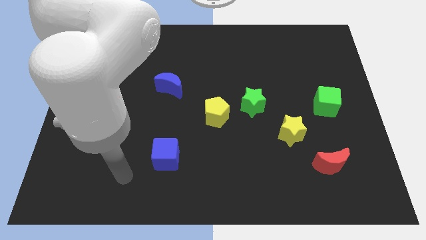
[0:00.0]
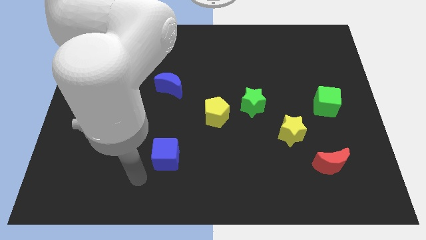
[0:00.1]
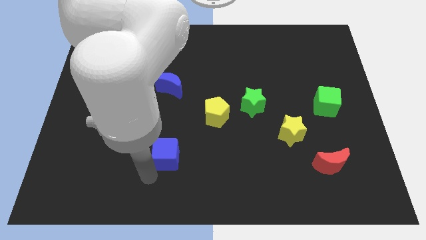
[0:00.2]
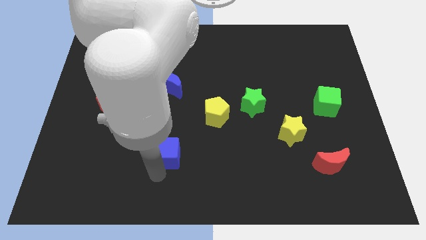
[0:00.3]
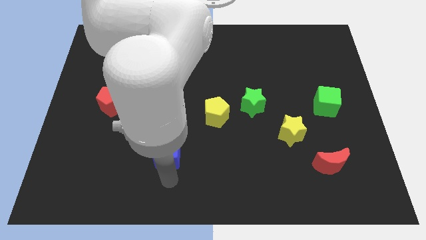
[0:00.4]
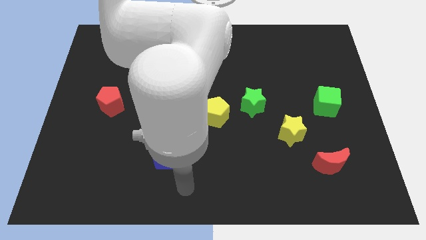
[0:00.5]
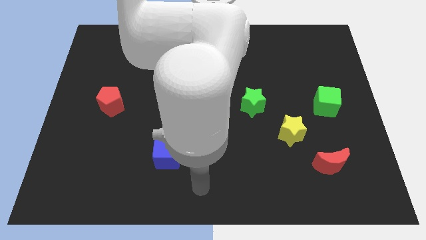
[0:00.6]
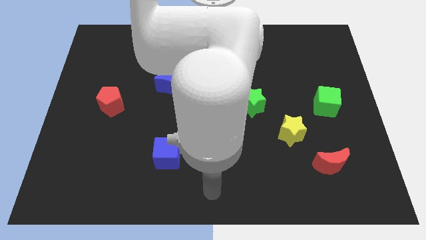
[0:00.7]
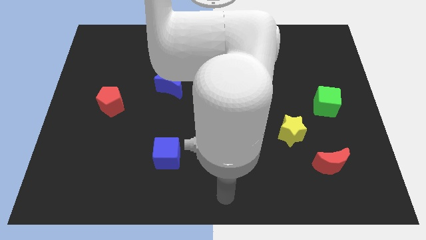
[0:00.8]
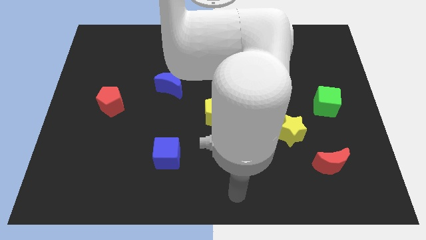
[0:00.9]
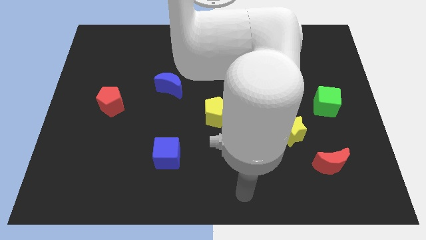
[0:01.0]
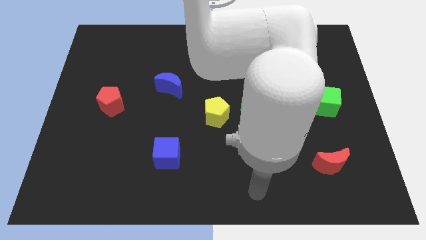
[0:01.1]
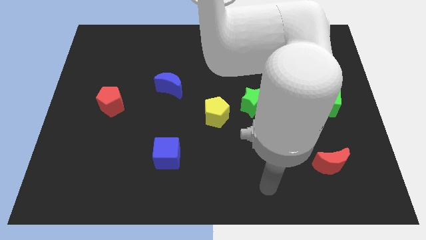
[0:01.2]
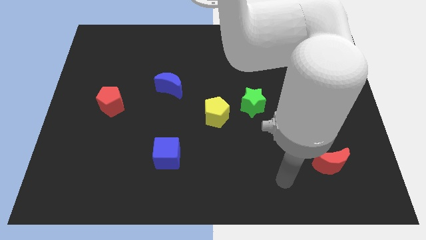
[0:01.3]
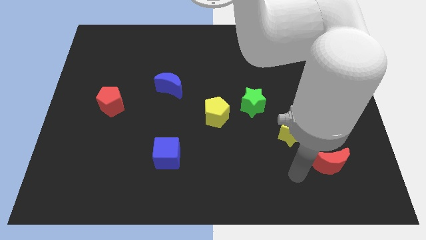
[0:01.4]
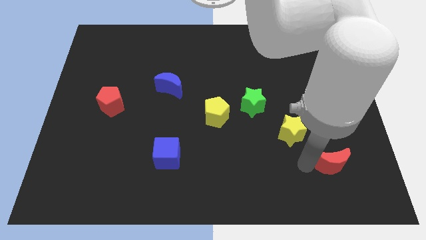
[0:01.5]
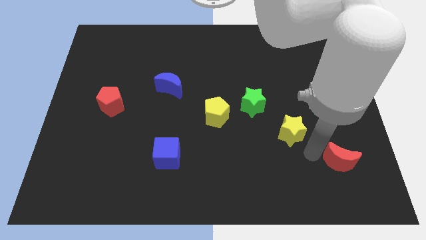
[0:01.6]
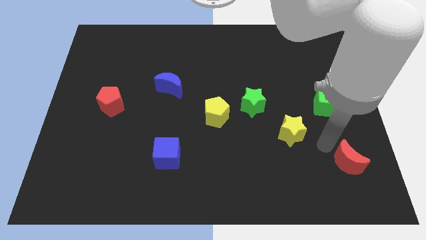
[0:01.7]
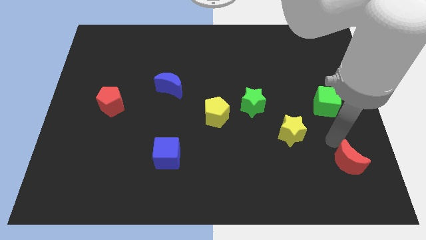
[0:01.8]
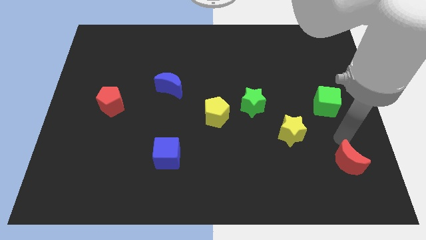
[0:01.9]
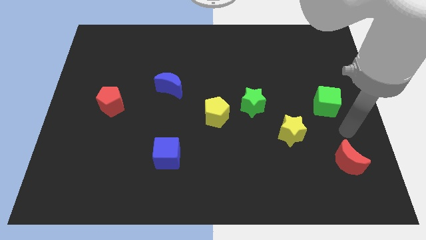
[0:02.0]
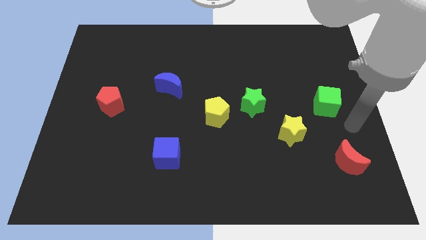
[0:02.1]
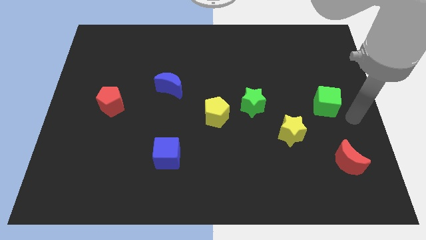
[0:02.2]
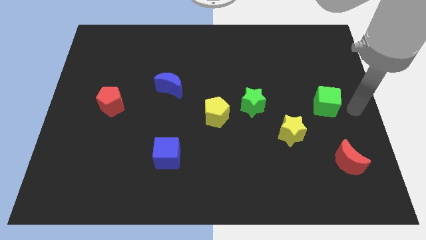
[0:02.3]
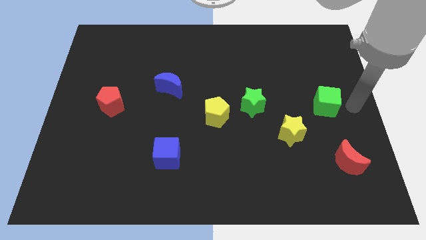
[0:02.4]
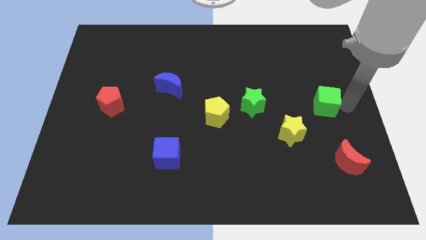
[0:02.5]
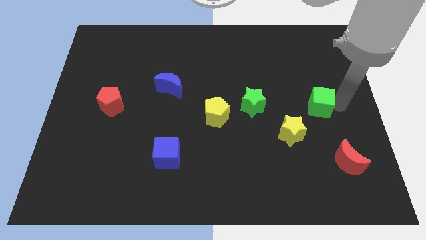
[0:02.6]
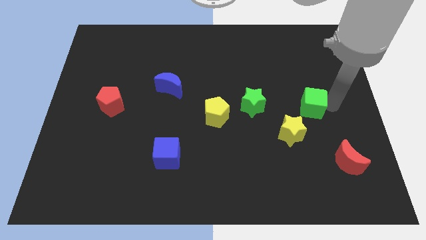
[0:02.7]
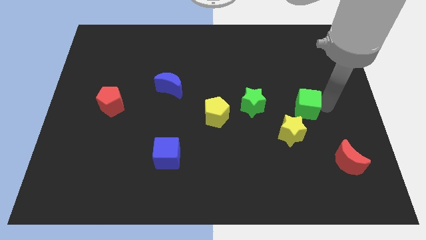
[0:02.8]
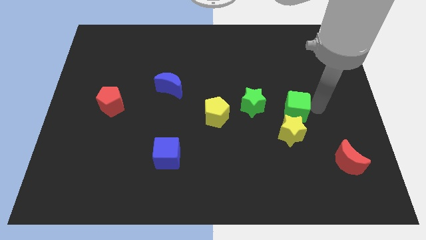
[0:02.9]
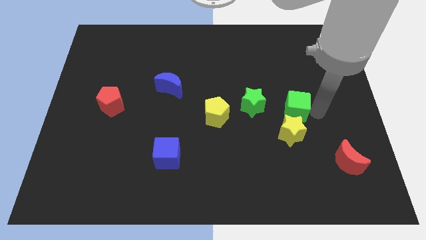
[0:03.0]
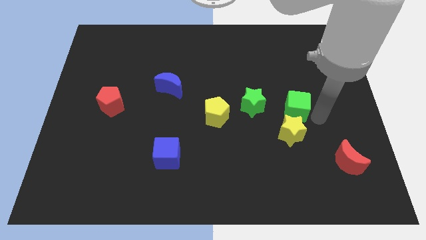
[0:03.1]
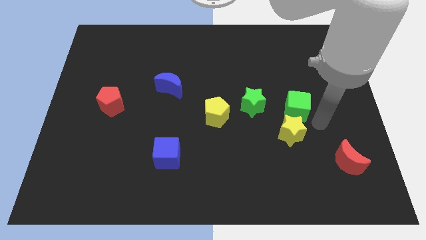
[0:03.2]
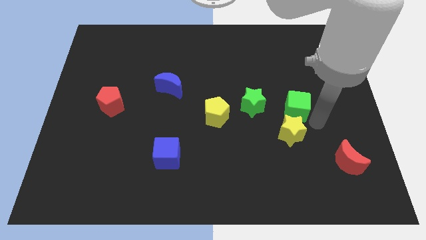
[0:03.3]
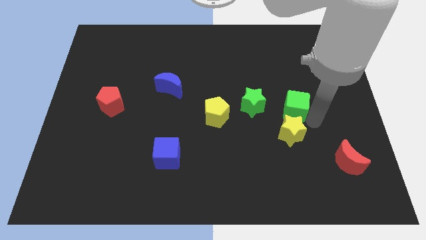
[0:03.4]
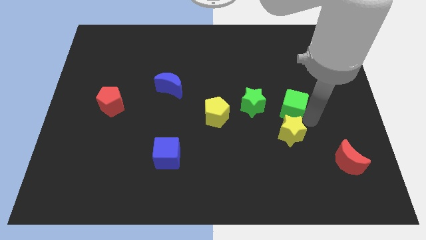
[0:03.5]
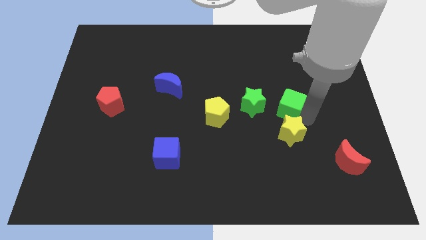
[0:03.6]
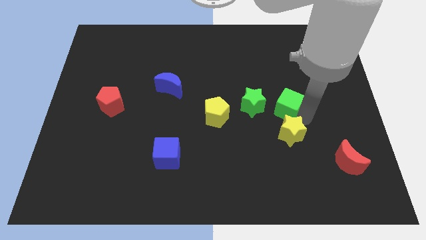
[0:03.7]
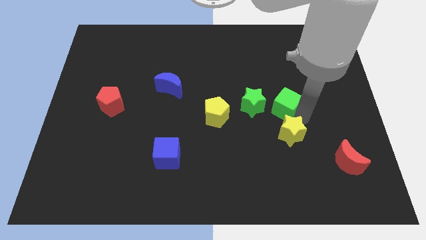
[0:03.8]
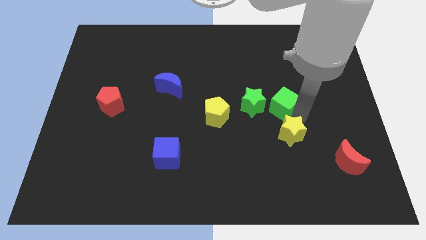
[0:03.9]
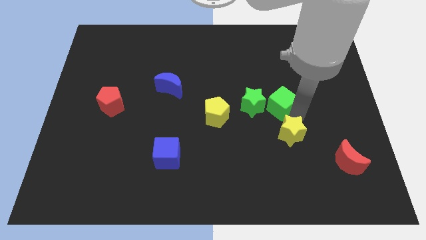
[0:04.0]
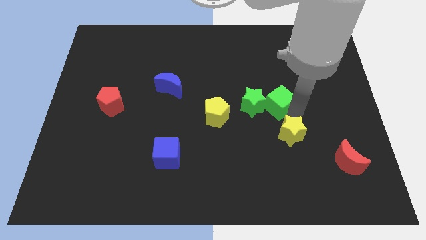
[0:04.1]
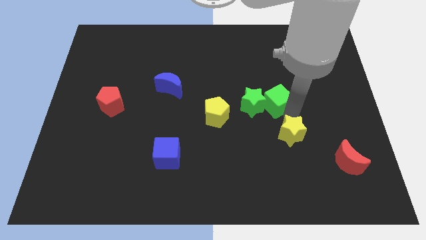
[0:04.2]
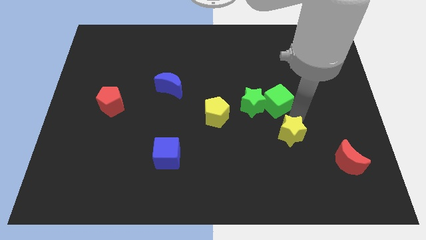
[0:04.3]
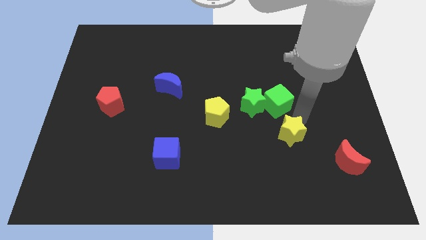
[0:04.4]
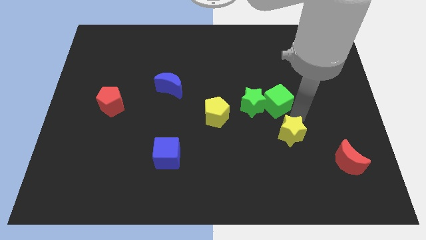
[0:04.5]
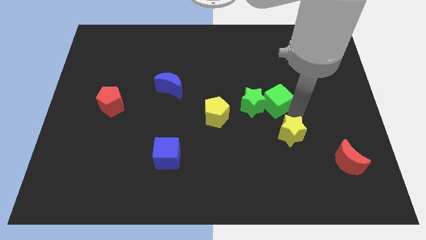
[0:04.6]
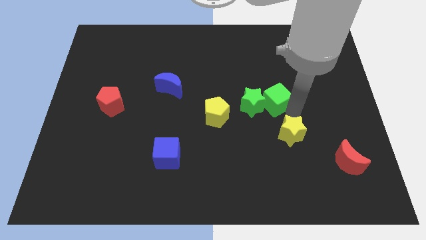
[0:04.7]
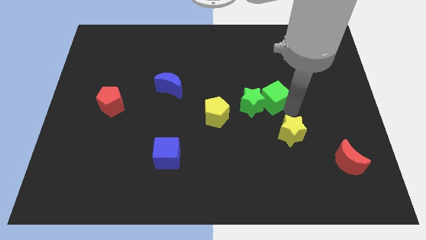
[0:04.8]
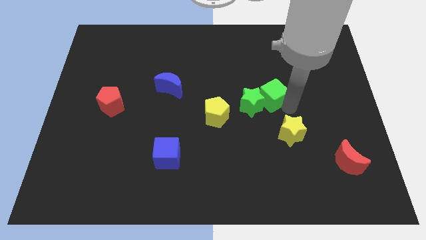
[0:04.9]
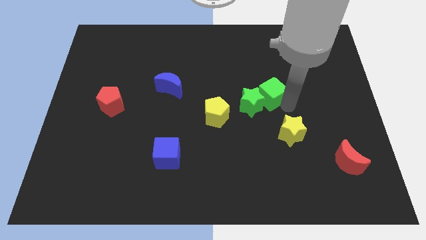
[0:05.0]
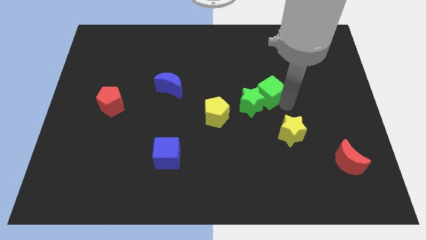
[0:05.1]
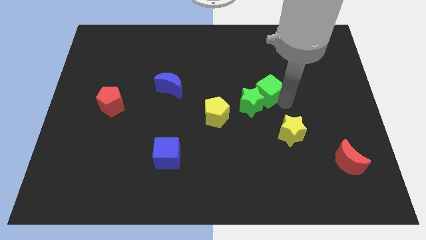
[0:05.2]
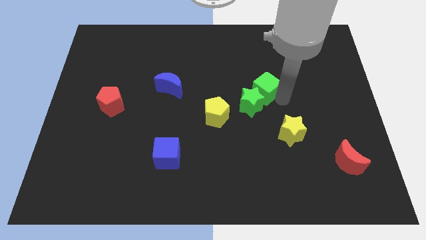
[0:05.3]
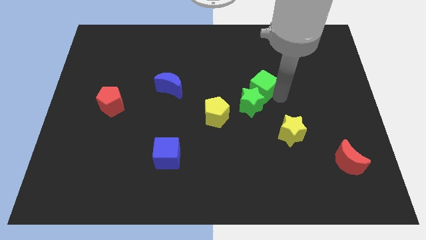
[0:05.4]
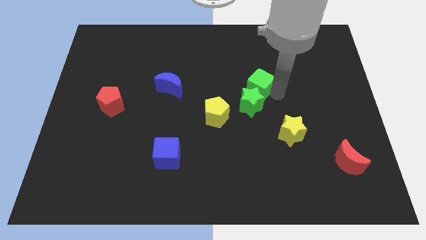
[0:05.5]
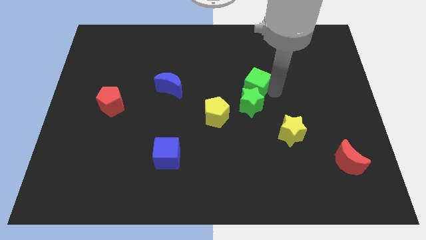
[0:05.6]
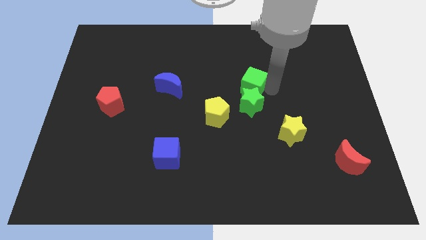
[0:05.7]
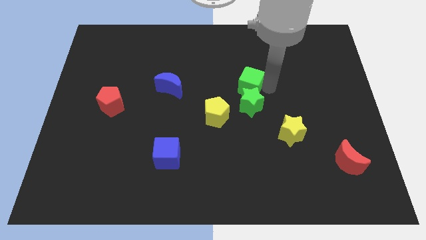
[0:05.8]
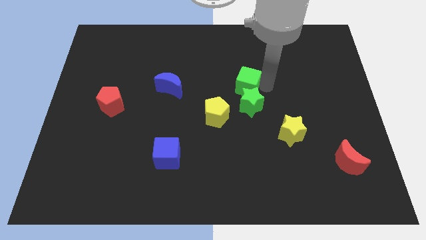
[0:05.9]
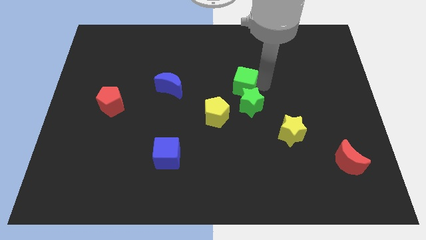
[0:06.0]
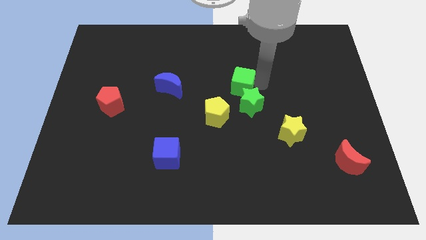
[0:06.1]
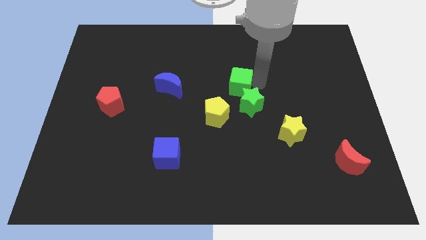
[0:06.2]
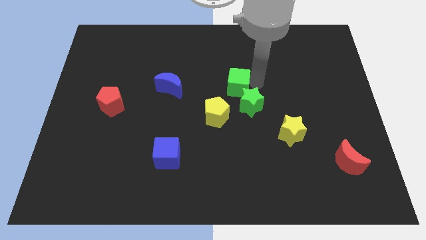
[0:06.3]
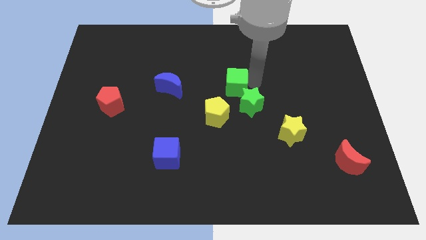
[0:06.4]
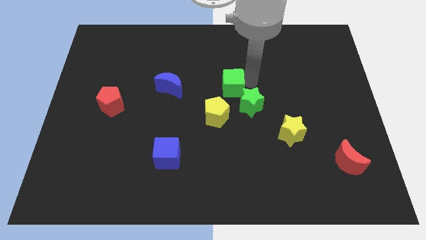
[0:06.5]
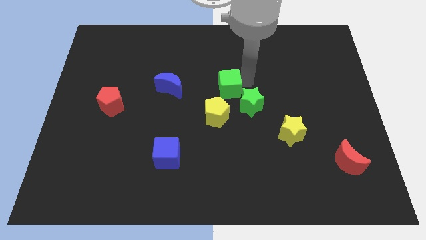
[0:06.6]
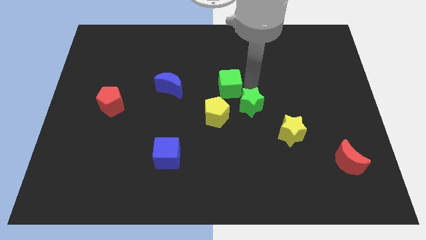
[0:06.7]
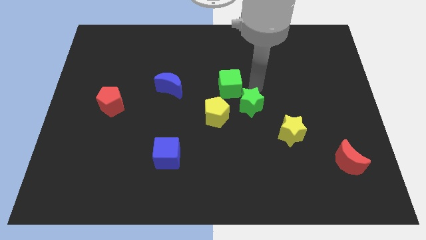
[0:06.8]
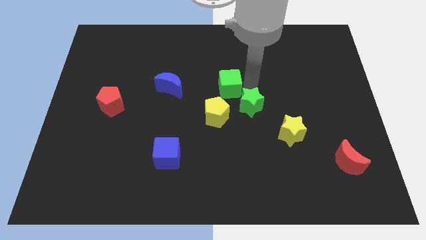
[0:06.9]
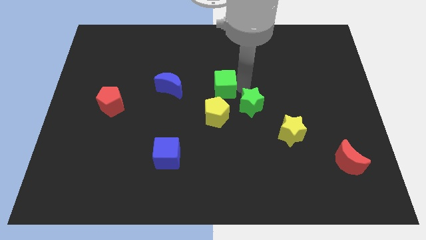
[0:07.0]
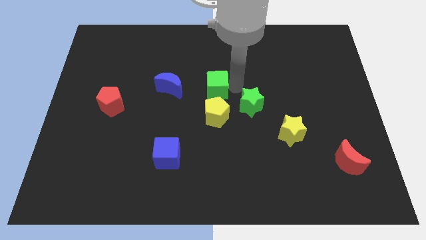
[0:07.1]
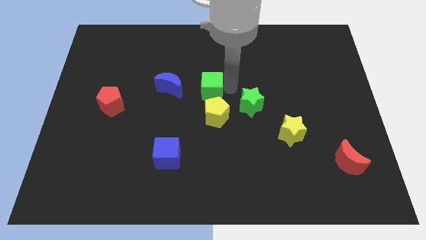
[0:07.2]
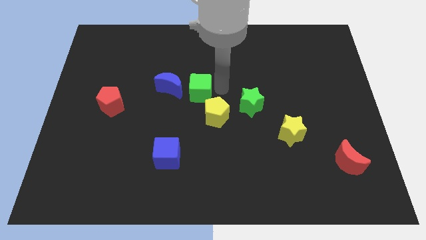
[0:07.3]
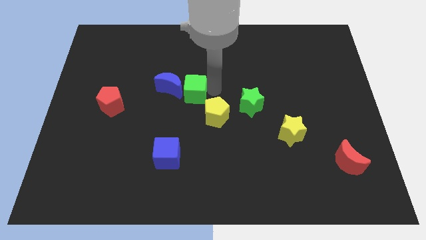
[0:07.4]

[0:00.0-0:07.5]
put the green cube to the blue moon

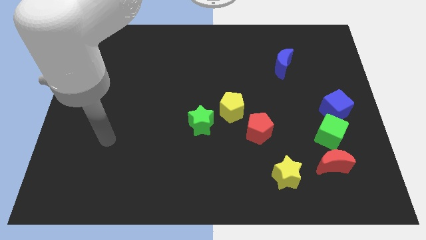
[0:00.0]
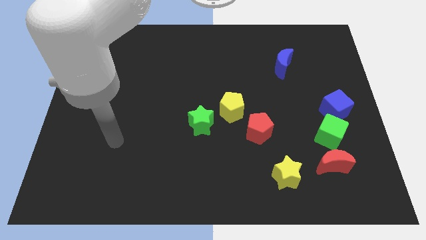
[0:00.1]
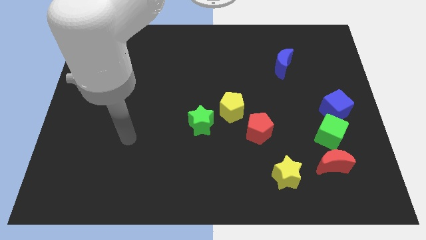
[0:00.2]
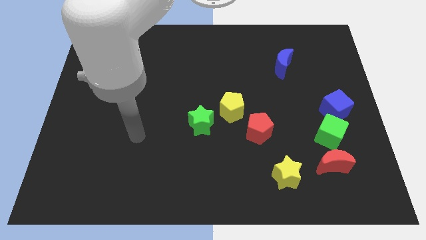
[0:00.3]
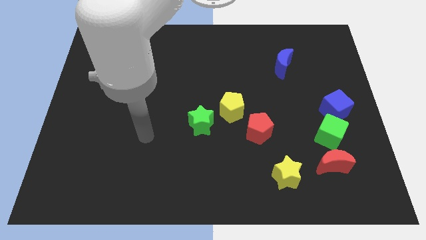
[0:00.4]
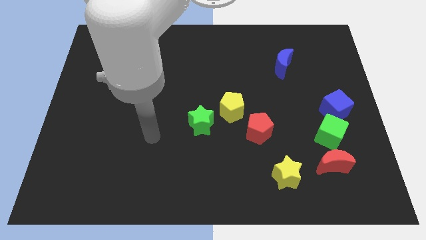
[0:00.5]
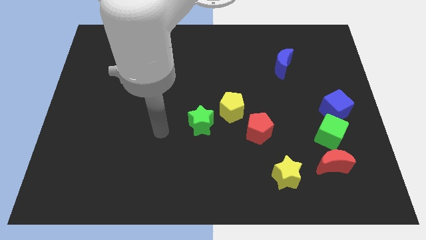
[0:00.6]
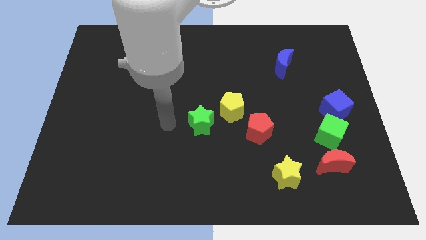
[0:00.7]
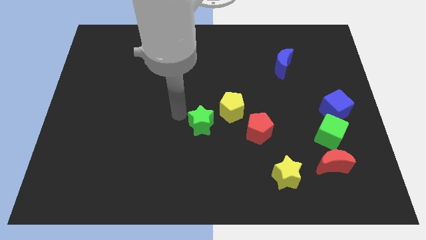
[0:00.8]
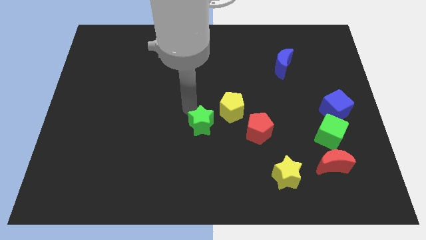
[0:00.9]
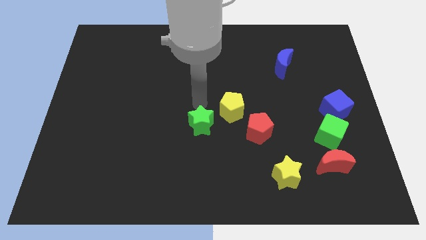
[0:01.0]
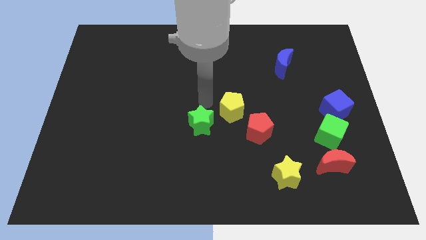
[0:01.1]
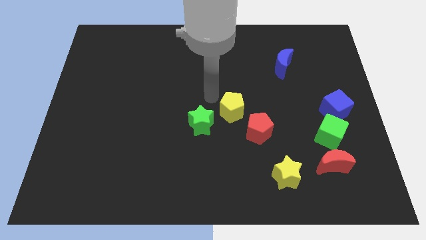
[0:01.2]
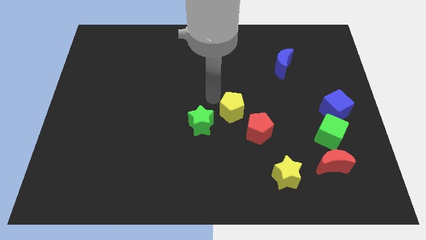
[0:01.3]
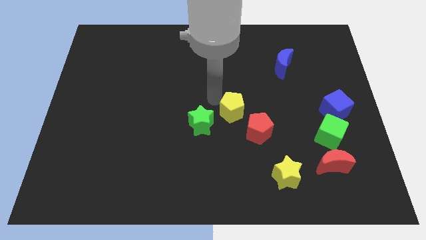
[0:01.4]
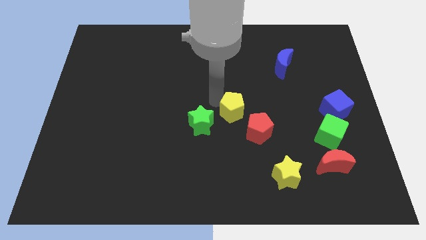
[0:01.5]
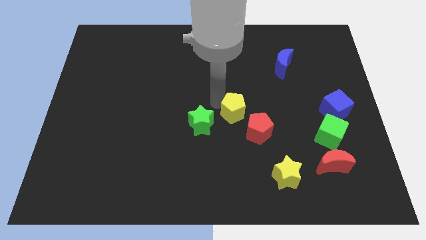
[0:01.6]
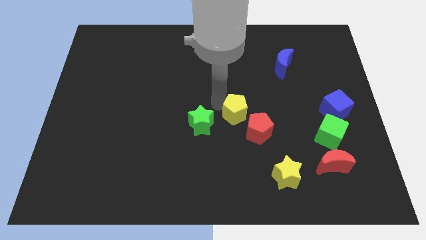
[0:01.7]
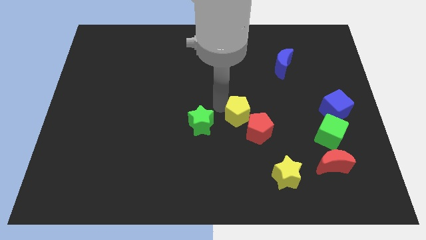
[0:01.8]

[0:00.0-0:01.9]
move the yellow pentagon towards the red pentagon
